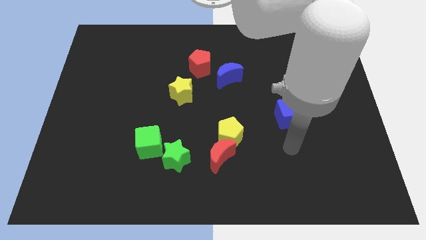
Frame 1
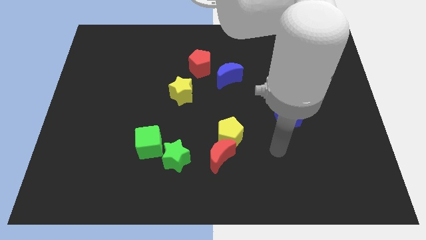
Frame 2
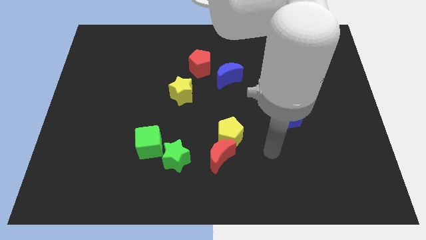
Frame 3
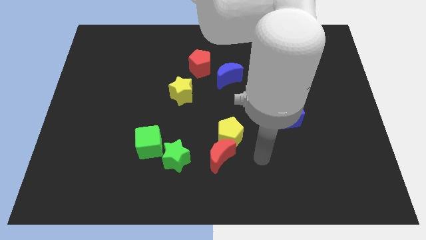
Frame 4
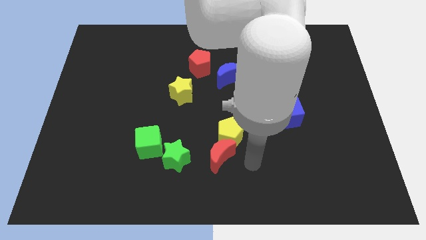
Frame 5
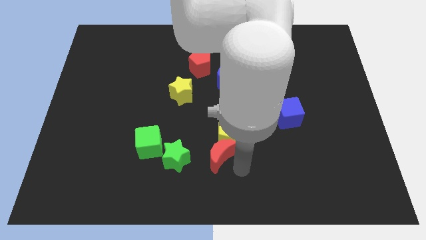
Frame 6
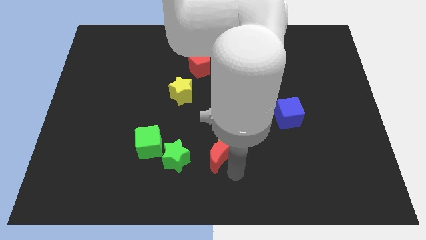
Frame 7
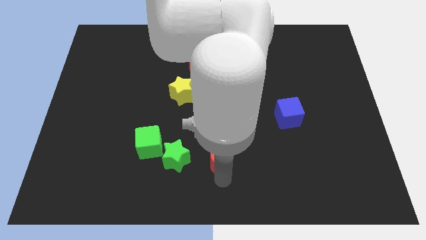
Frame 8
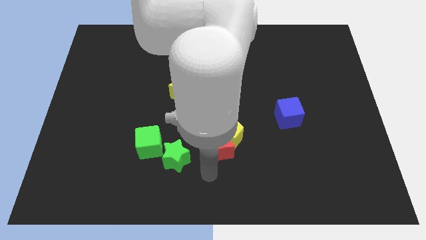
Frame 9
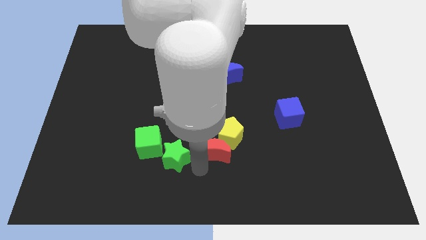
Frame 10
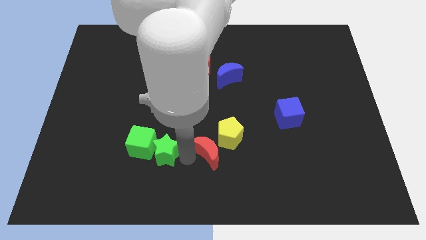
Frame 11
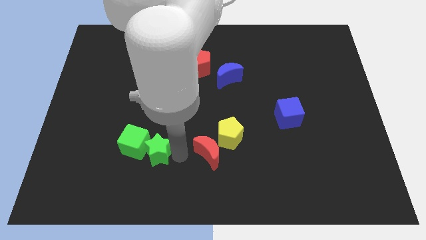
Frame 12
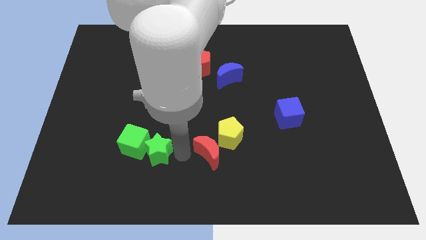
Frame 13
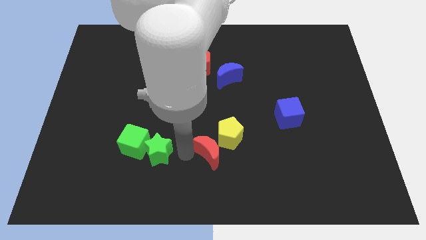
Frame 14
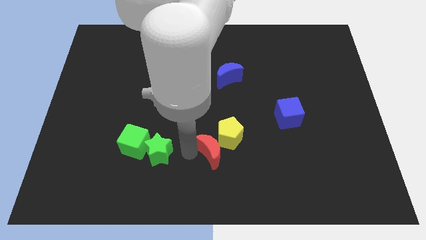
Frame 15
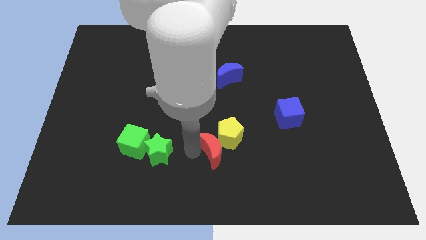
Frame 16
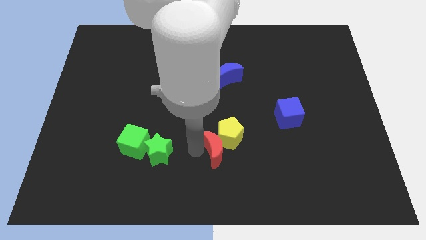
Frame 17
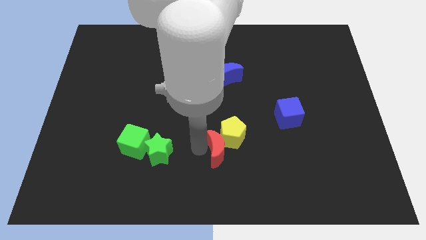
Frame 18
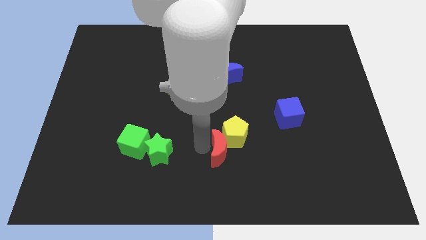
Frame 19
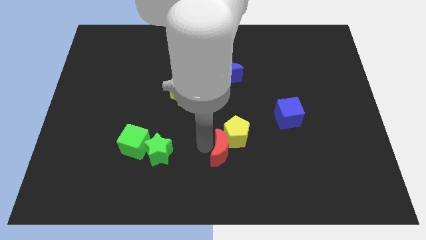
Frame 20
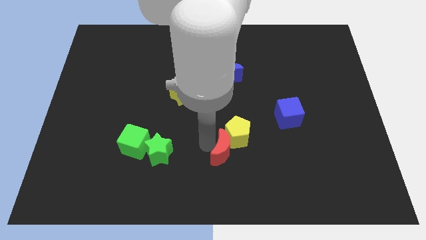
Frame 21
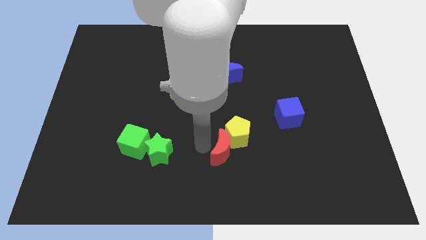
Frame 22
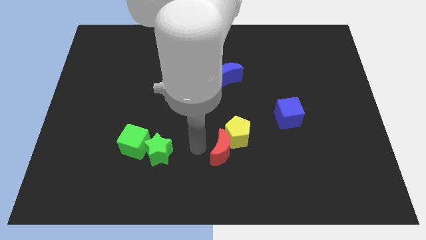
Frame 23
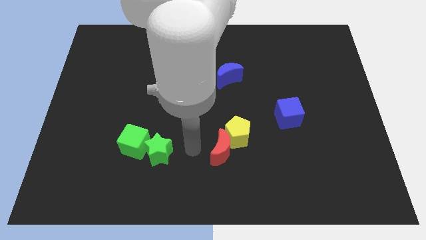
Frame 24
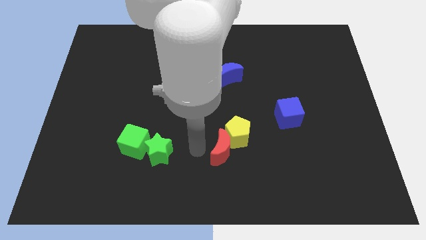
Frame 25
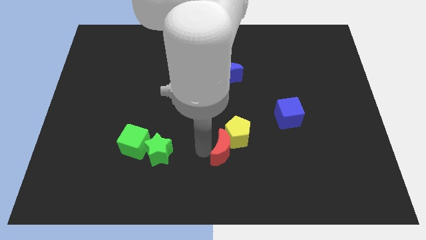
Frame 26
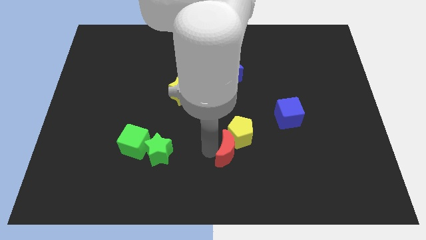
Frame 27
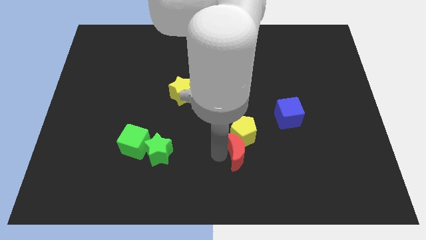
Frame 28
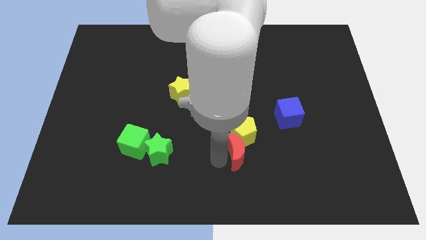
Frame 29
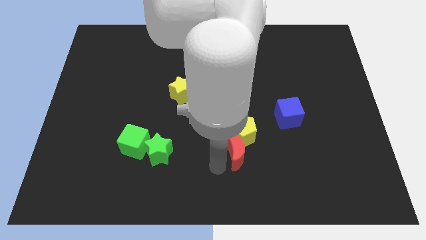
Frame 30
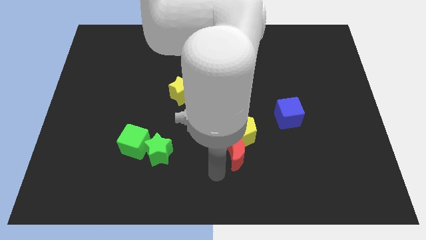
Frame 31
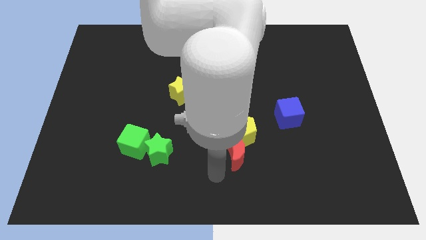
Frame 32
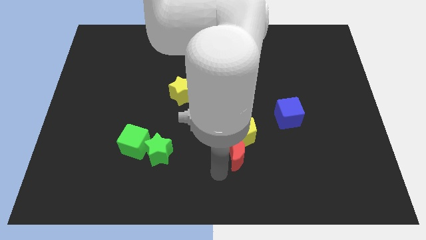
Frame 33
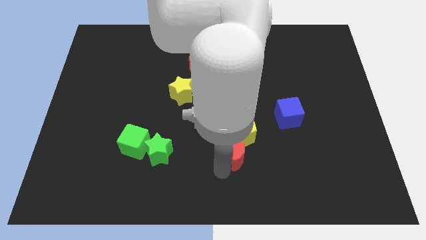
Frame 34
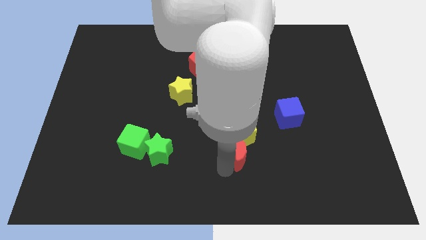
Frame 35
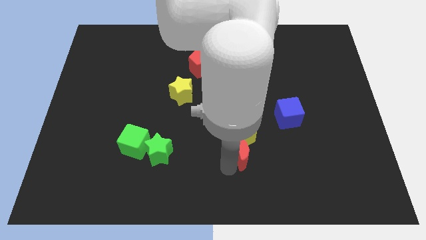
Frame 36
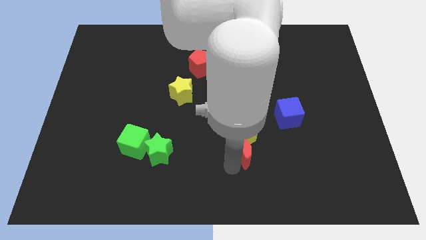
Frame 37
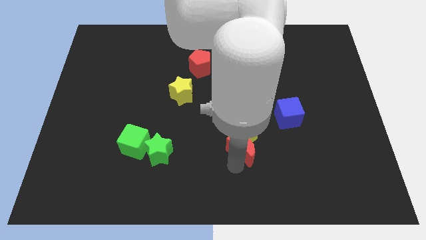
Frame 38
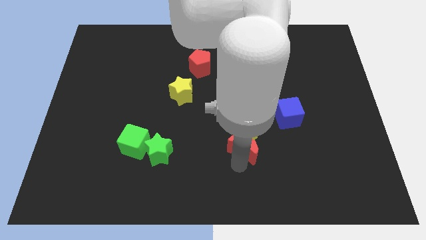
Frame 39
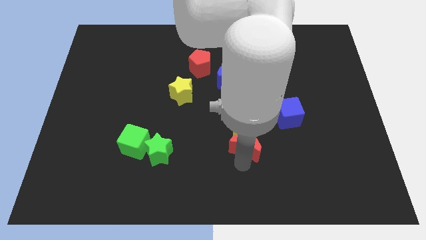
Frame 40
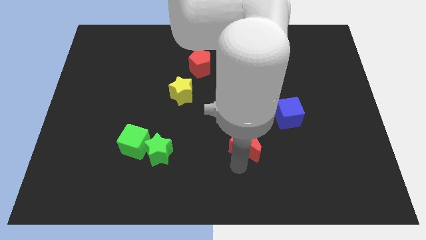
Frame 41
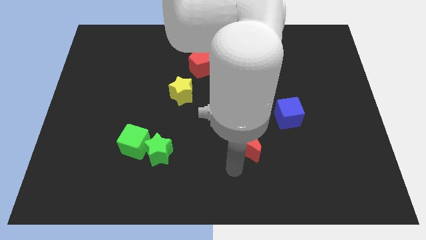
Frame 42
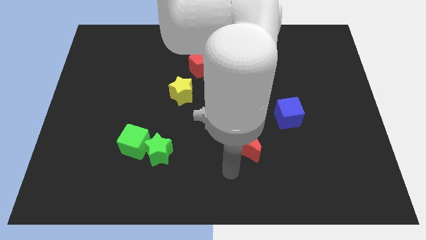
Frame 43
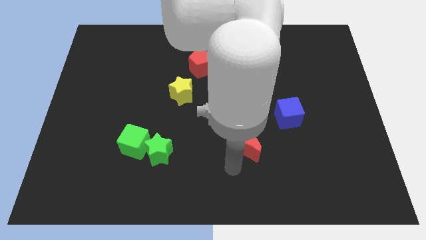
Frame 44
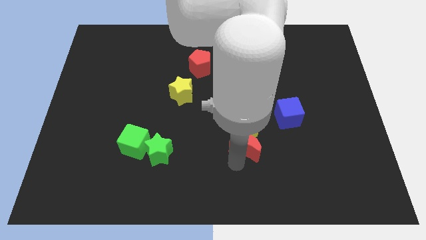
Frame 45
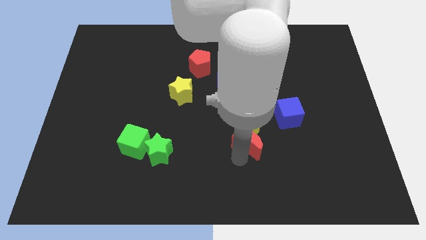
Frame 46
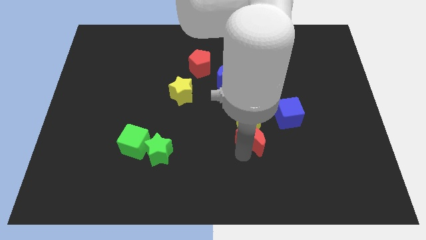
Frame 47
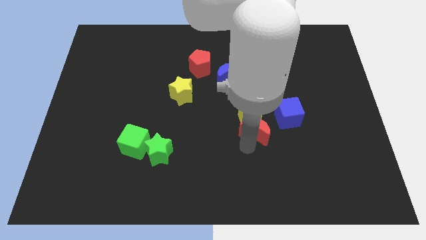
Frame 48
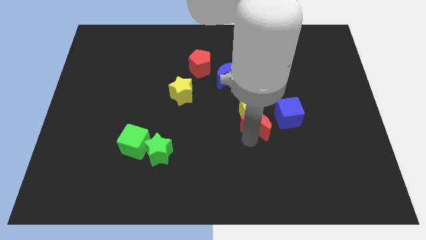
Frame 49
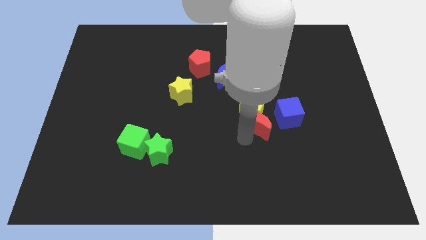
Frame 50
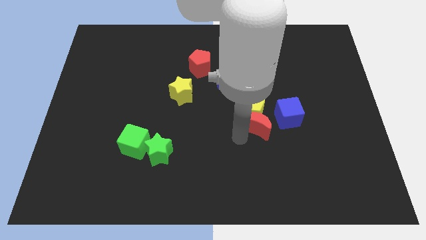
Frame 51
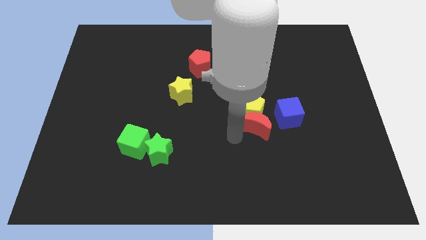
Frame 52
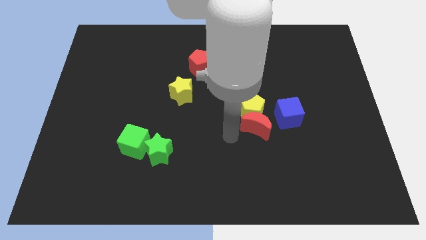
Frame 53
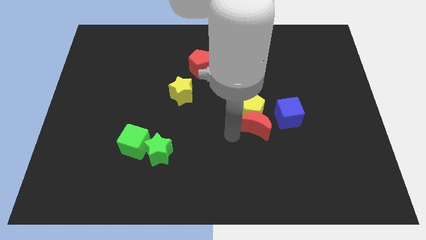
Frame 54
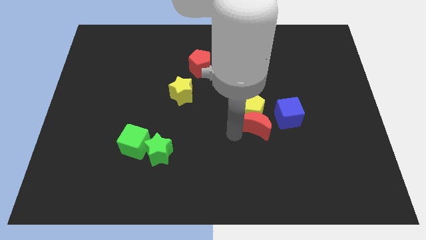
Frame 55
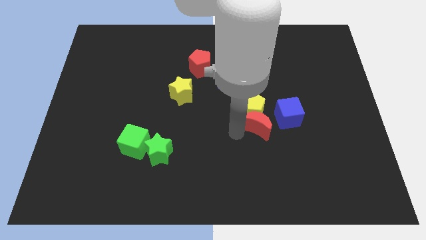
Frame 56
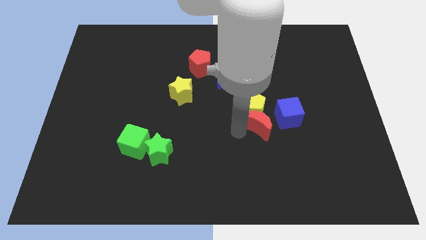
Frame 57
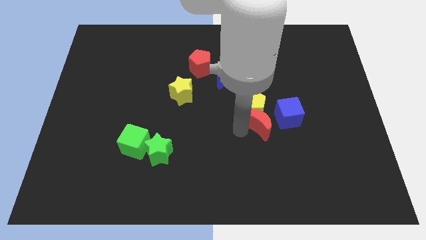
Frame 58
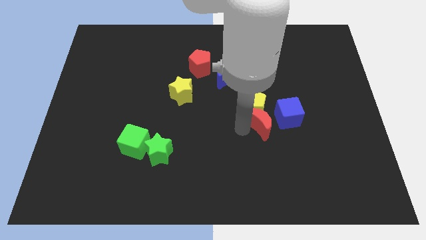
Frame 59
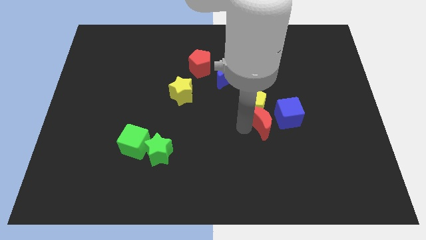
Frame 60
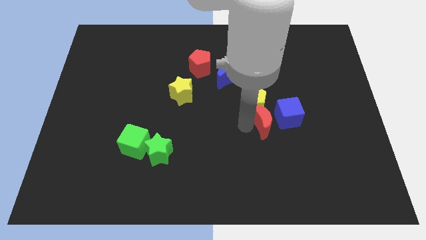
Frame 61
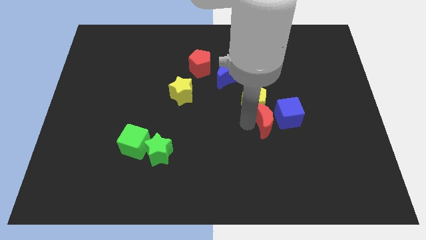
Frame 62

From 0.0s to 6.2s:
slide the red moon towards the blue cube

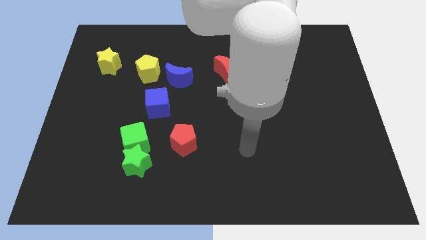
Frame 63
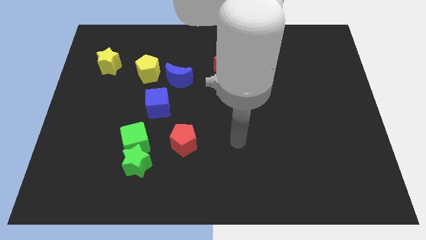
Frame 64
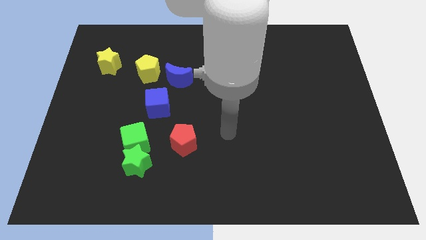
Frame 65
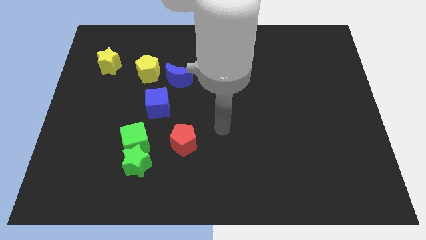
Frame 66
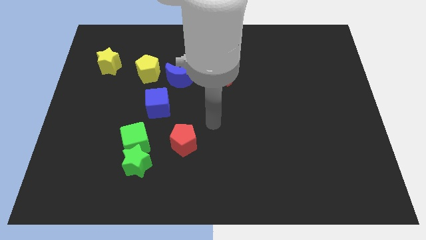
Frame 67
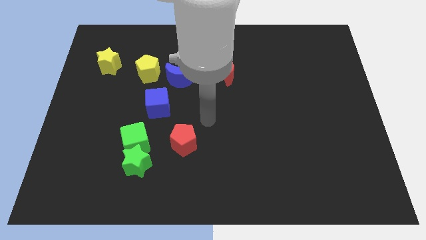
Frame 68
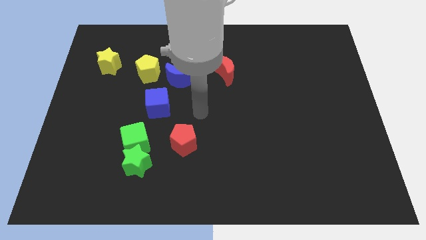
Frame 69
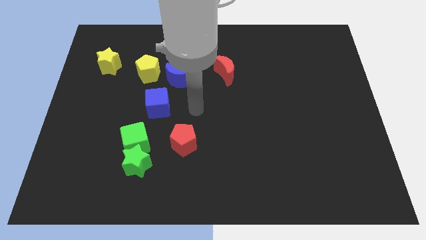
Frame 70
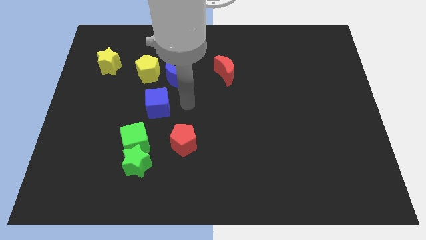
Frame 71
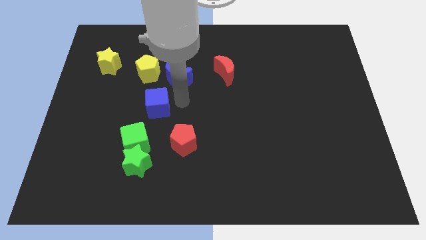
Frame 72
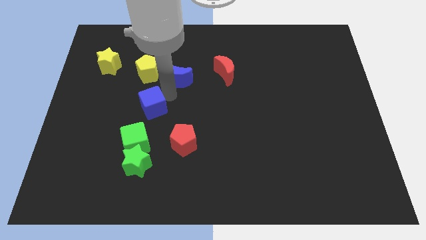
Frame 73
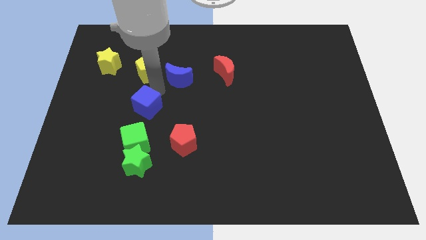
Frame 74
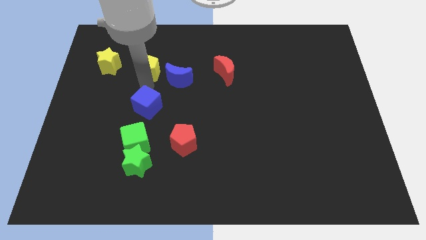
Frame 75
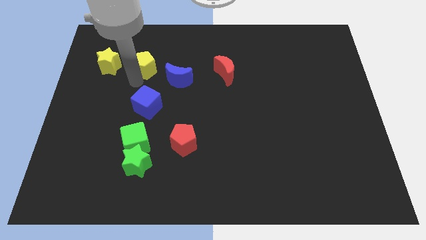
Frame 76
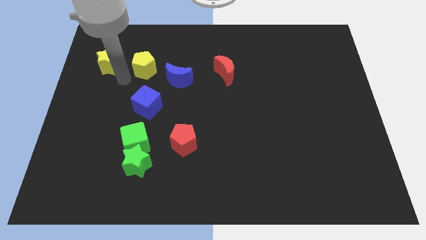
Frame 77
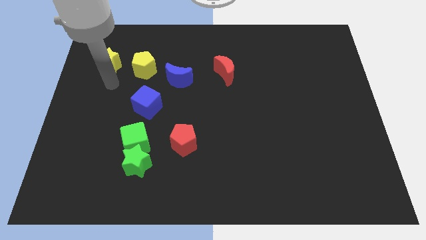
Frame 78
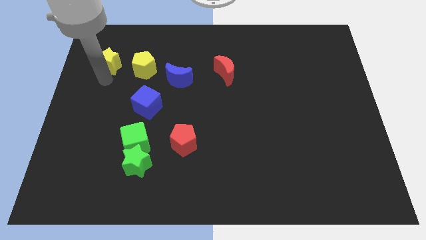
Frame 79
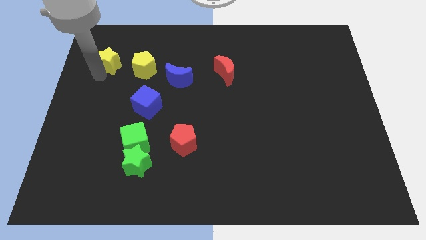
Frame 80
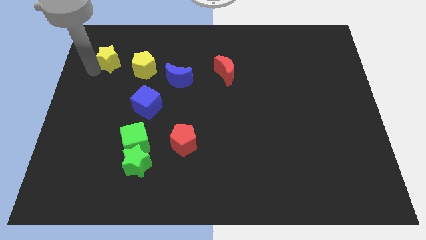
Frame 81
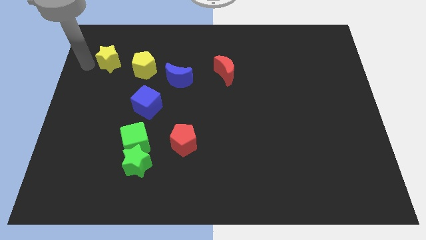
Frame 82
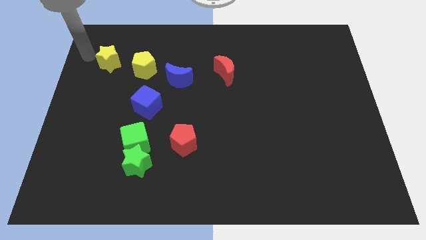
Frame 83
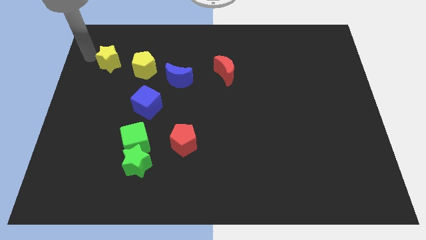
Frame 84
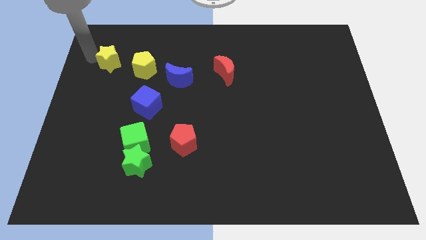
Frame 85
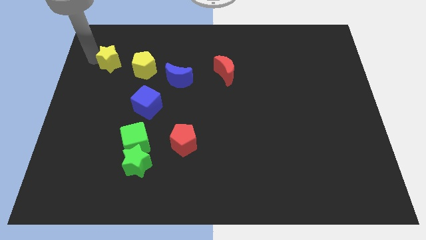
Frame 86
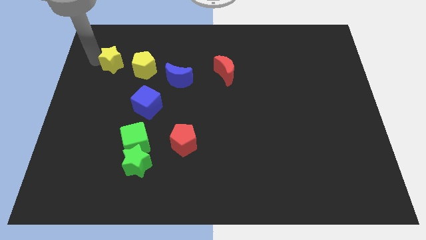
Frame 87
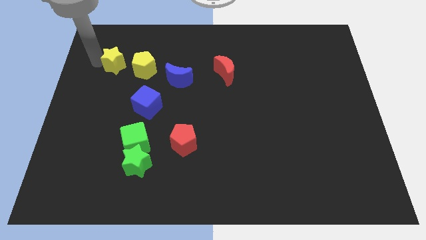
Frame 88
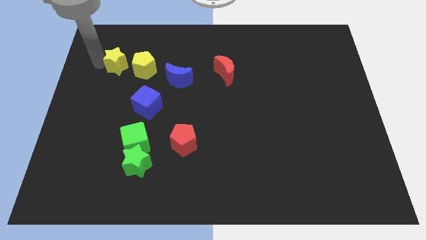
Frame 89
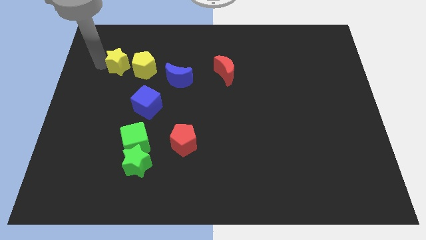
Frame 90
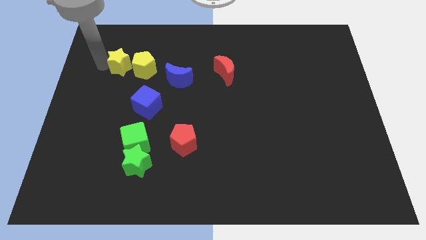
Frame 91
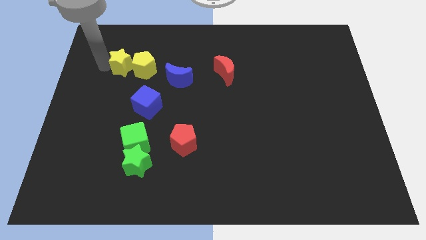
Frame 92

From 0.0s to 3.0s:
move the yellow star next to the yellow pentagon
